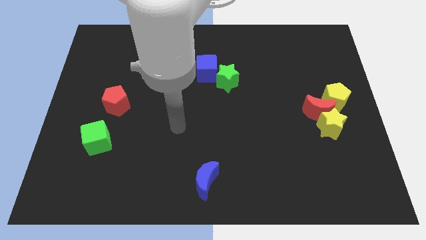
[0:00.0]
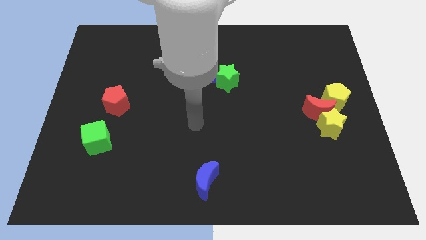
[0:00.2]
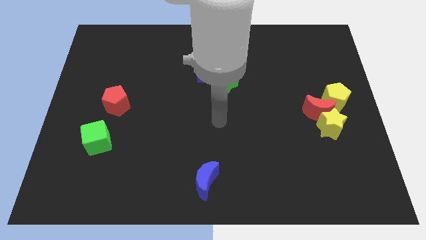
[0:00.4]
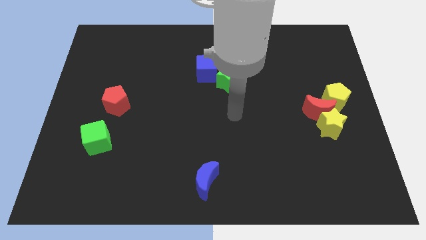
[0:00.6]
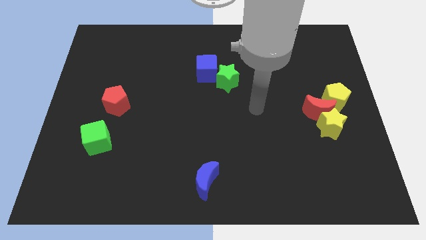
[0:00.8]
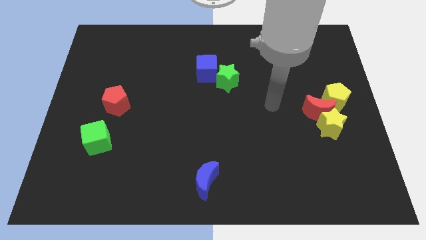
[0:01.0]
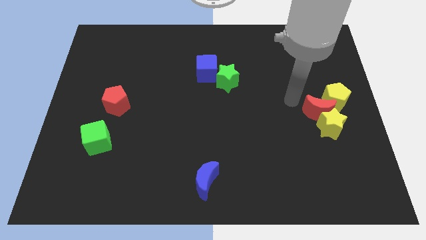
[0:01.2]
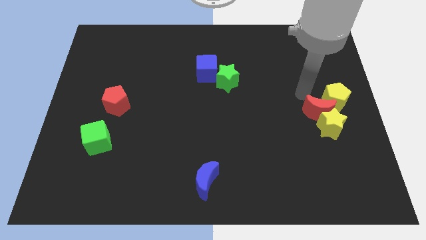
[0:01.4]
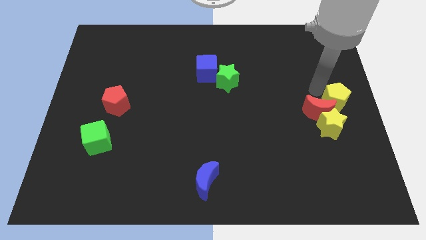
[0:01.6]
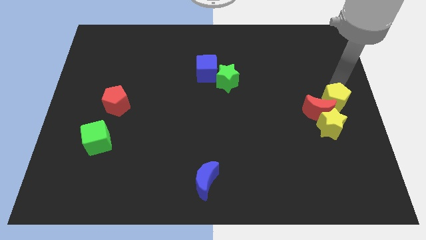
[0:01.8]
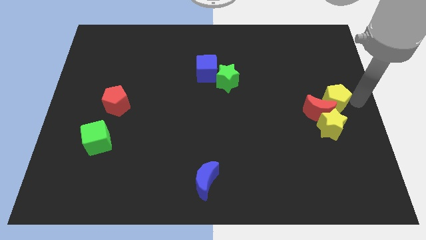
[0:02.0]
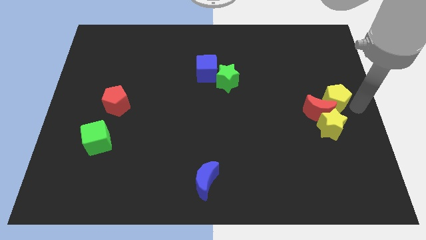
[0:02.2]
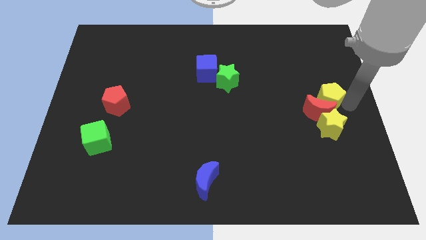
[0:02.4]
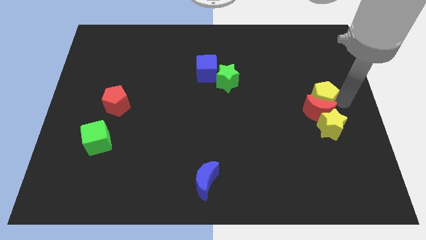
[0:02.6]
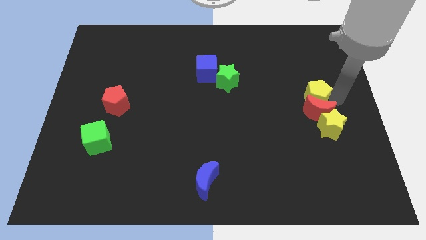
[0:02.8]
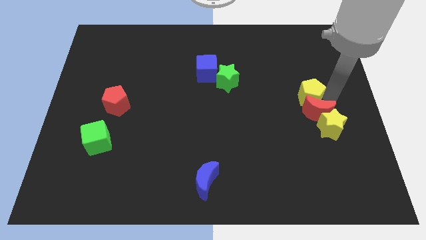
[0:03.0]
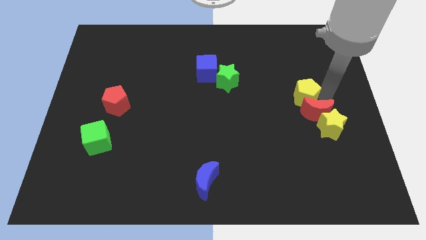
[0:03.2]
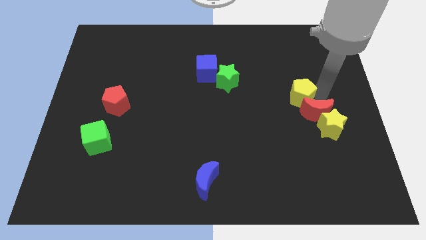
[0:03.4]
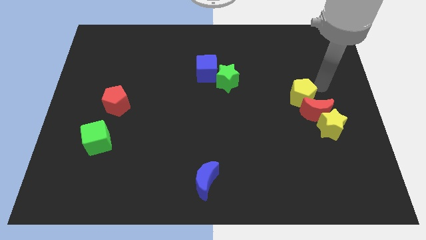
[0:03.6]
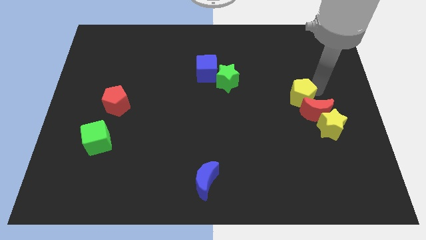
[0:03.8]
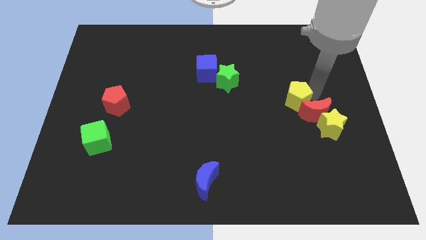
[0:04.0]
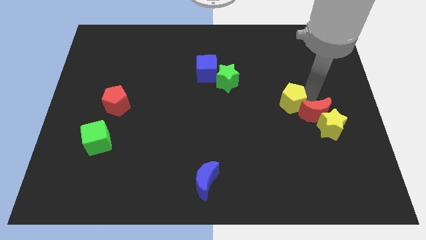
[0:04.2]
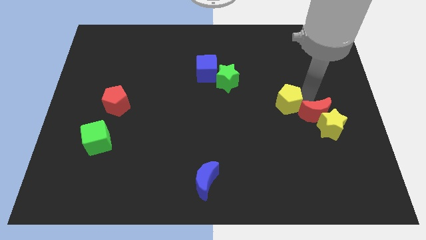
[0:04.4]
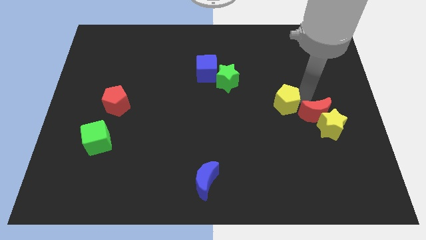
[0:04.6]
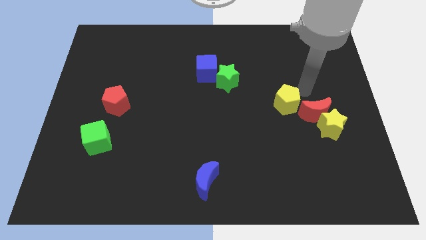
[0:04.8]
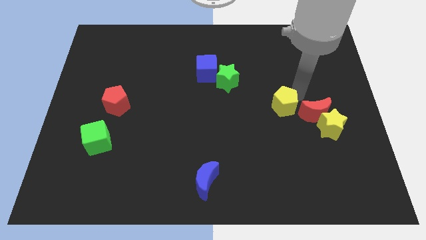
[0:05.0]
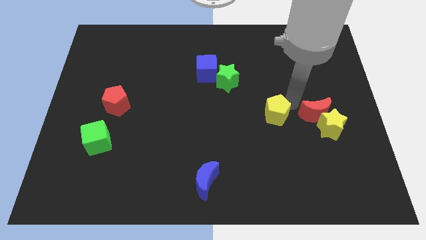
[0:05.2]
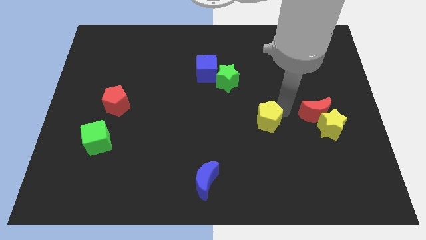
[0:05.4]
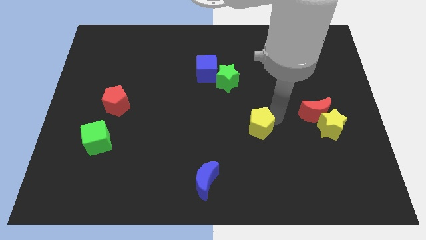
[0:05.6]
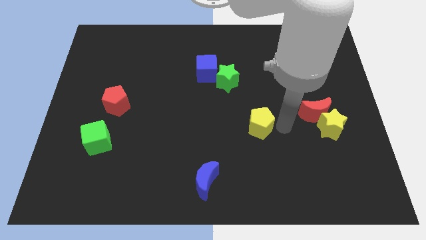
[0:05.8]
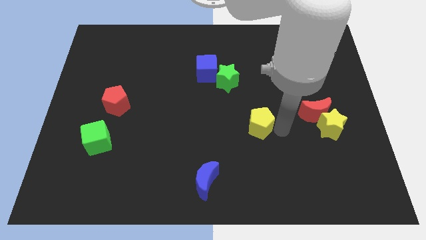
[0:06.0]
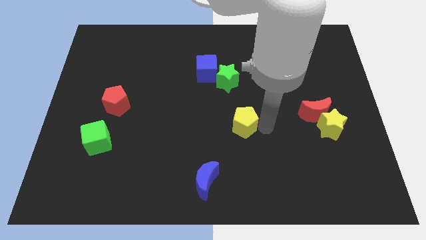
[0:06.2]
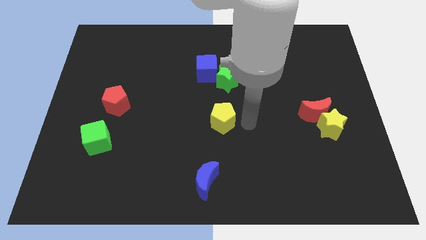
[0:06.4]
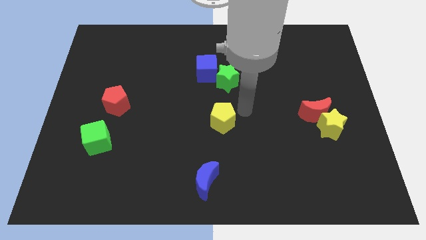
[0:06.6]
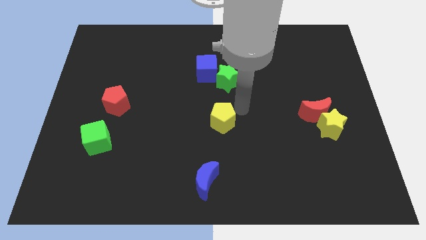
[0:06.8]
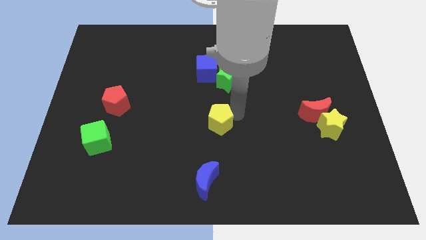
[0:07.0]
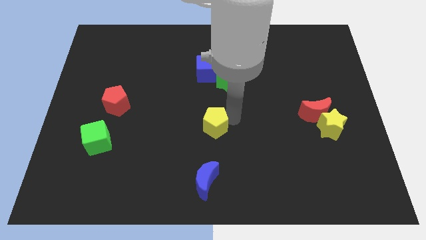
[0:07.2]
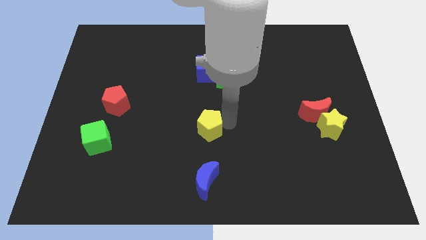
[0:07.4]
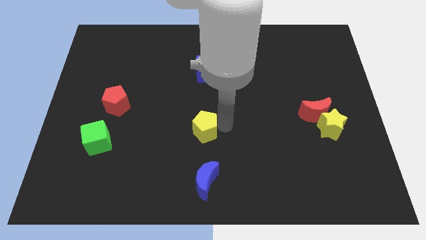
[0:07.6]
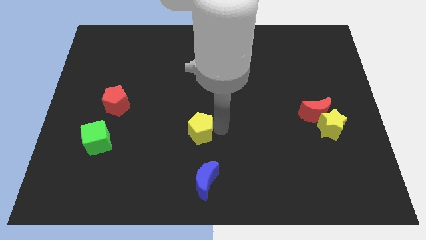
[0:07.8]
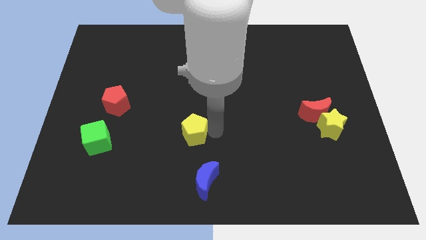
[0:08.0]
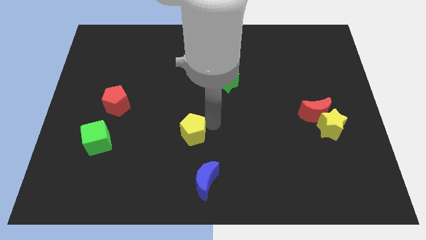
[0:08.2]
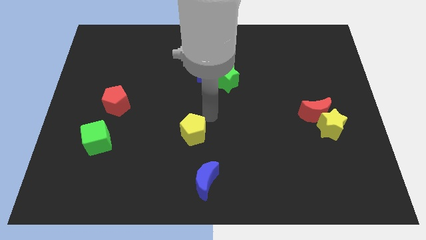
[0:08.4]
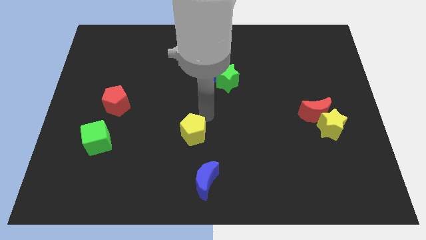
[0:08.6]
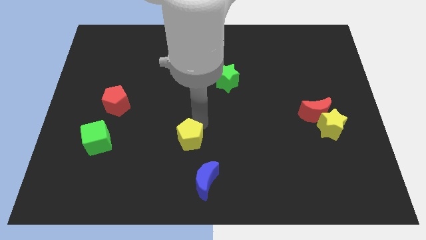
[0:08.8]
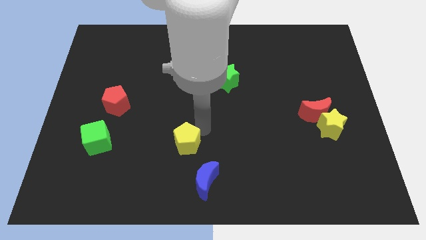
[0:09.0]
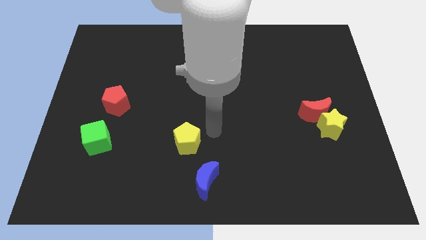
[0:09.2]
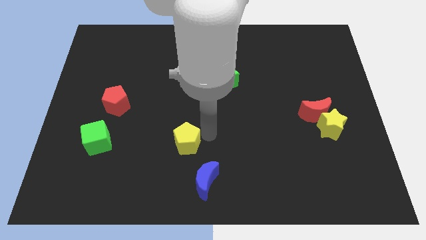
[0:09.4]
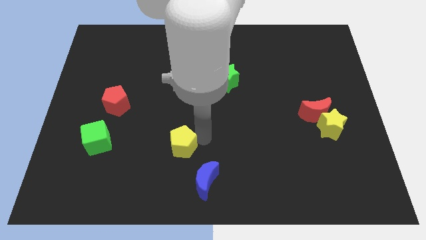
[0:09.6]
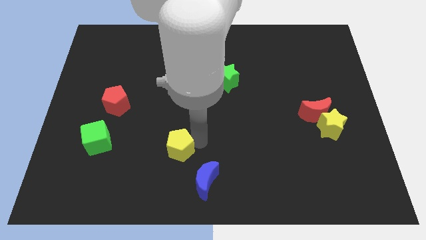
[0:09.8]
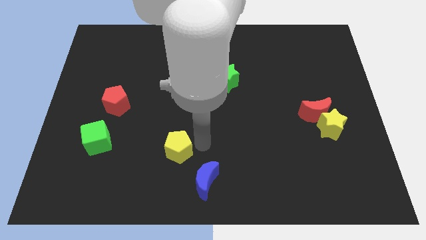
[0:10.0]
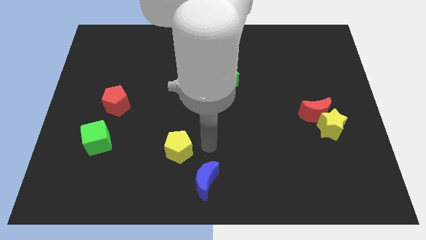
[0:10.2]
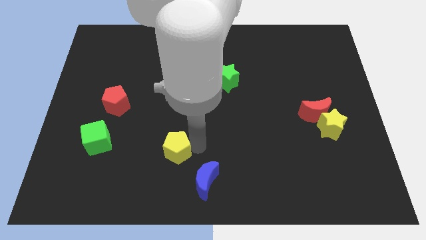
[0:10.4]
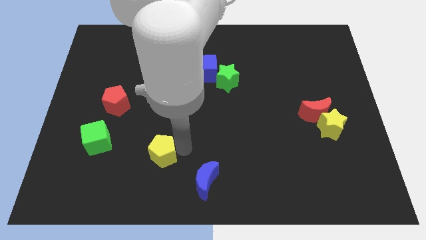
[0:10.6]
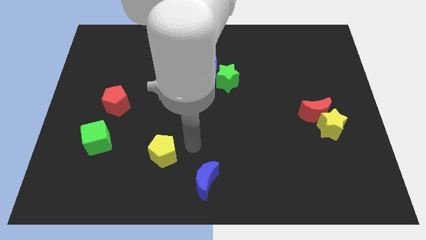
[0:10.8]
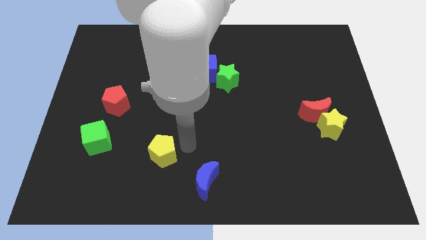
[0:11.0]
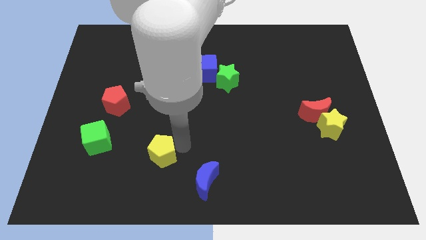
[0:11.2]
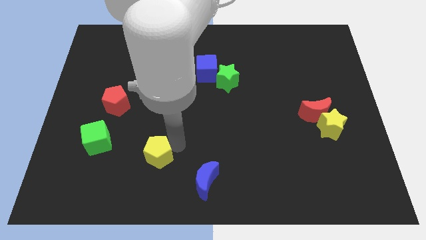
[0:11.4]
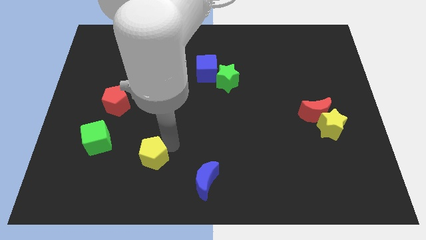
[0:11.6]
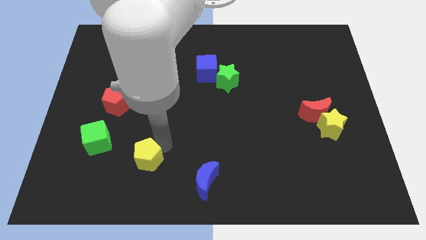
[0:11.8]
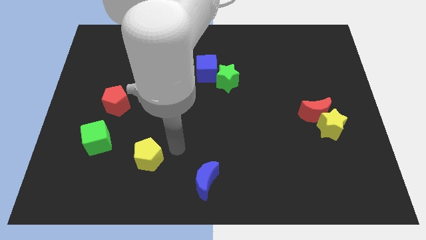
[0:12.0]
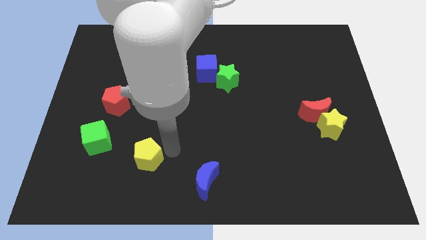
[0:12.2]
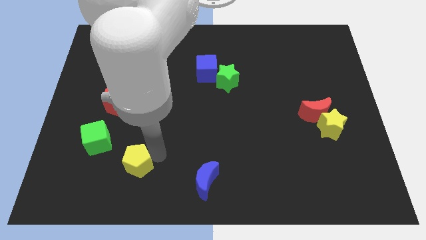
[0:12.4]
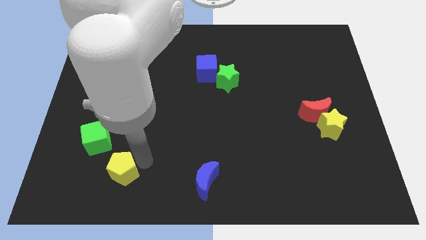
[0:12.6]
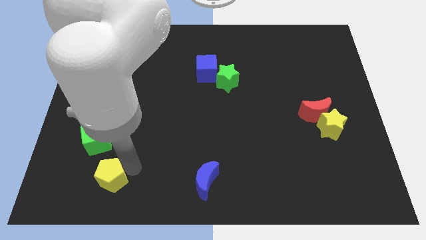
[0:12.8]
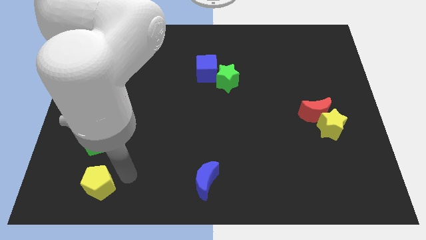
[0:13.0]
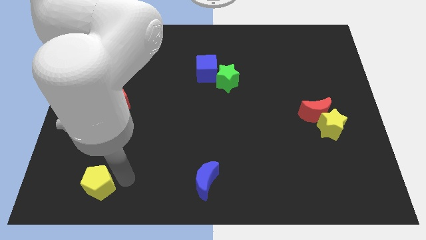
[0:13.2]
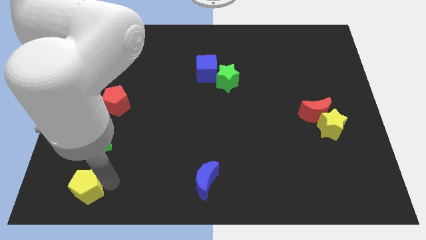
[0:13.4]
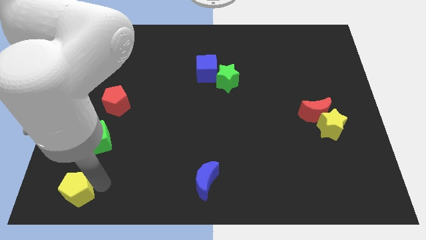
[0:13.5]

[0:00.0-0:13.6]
put the yellow pentagon to the bottom left of the board
